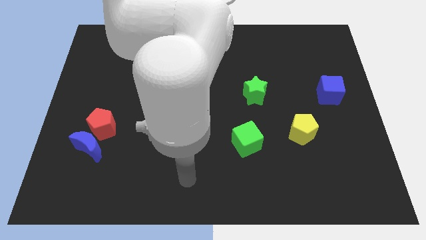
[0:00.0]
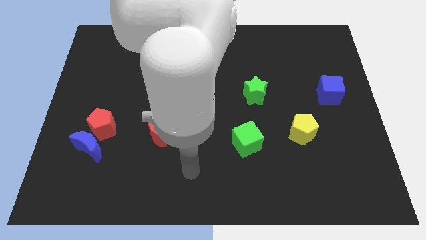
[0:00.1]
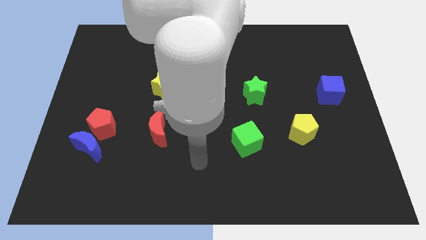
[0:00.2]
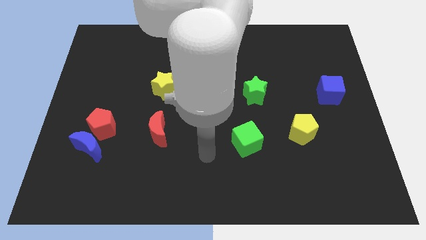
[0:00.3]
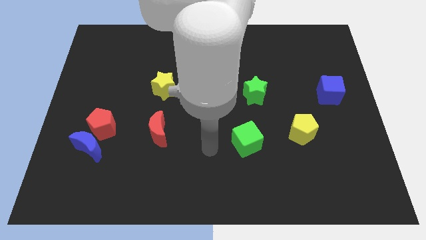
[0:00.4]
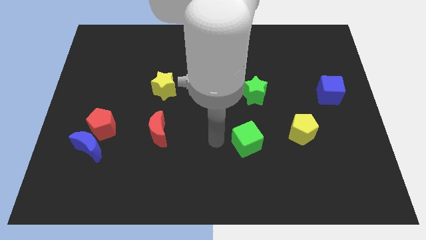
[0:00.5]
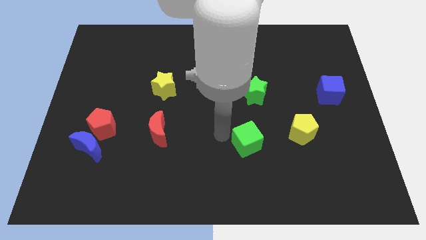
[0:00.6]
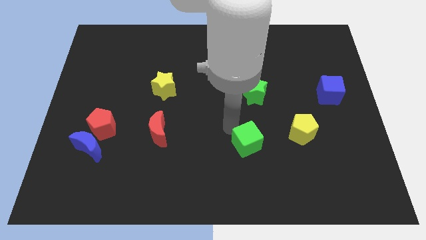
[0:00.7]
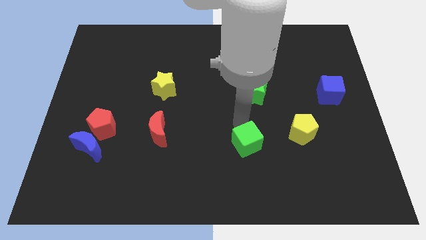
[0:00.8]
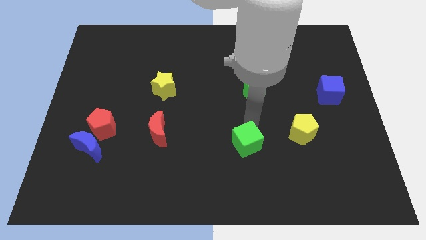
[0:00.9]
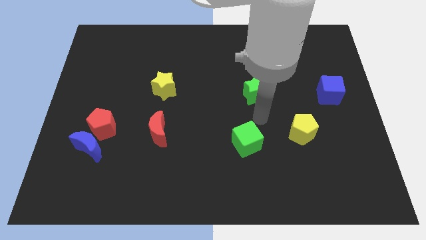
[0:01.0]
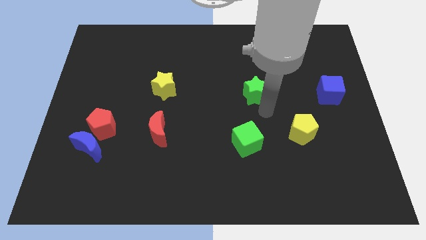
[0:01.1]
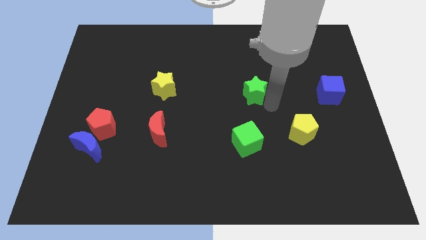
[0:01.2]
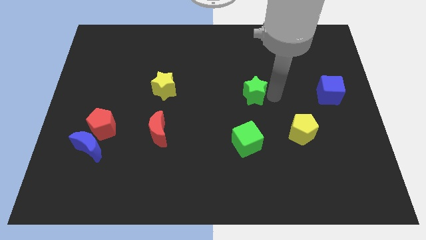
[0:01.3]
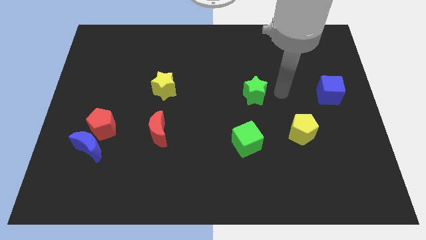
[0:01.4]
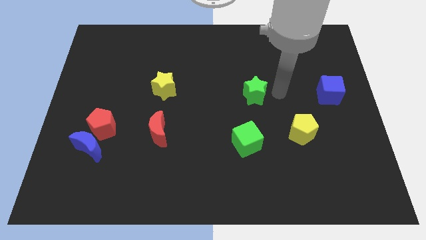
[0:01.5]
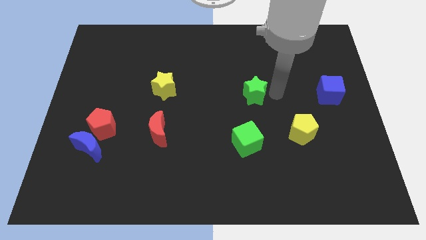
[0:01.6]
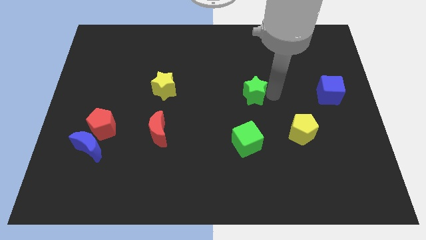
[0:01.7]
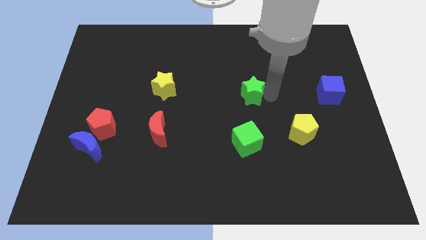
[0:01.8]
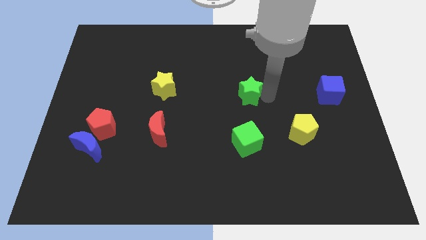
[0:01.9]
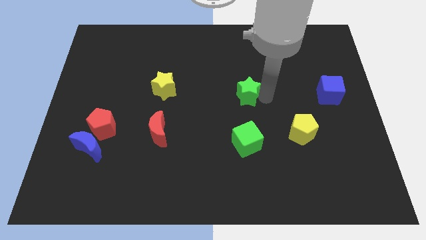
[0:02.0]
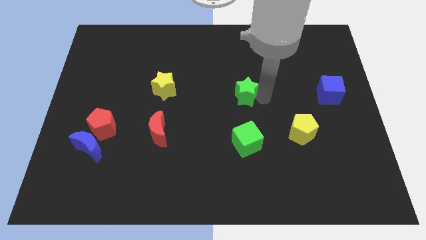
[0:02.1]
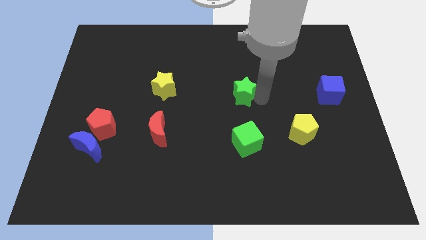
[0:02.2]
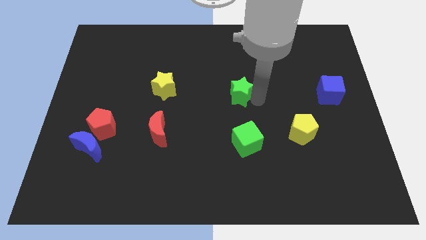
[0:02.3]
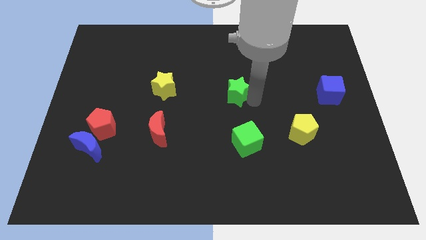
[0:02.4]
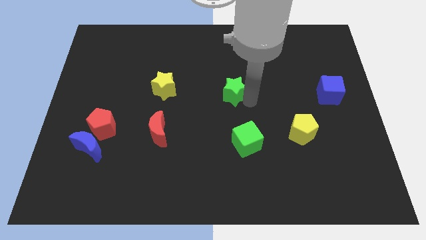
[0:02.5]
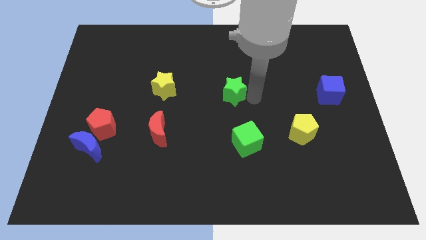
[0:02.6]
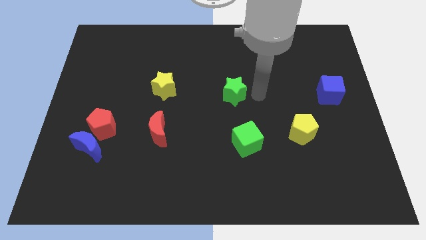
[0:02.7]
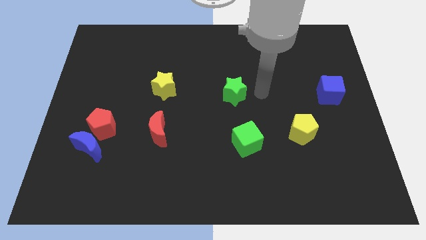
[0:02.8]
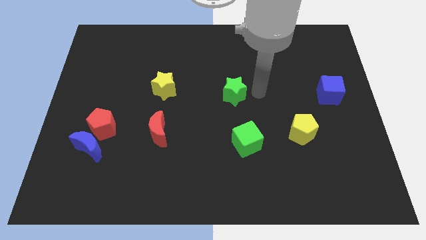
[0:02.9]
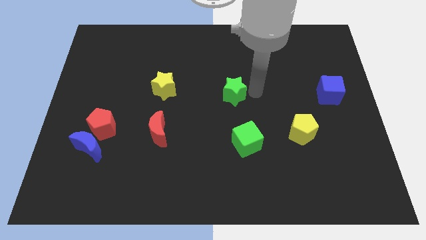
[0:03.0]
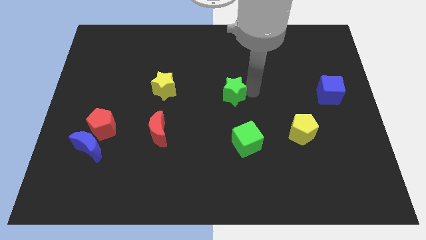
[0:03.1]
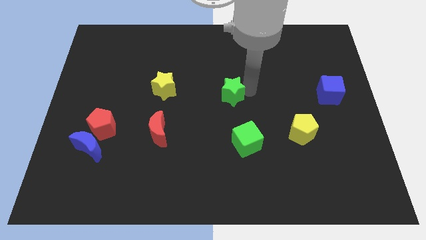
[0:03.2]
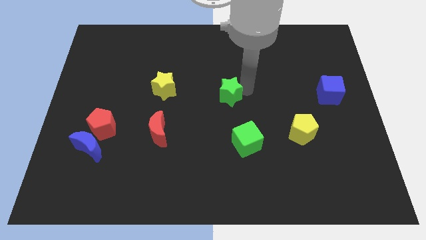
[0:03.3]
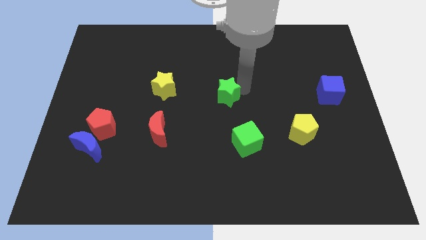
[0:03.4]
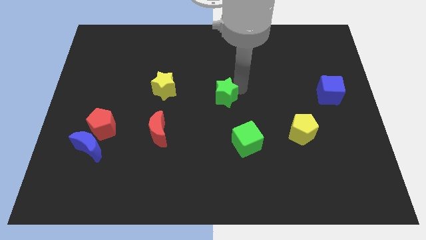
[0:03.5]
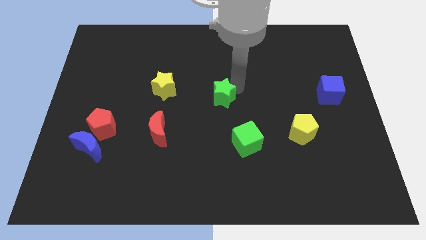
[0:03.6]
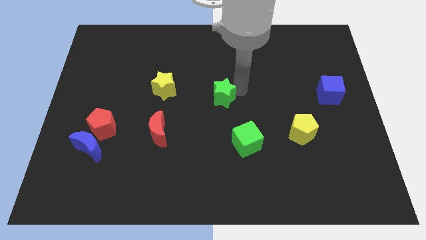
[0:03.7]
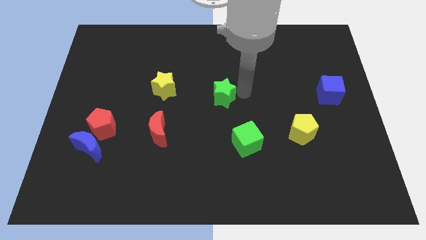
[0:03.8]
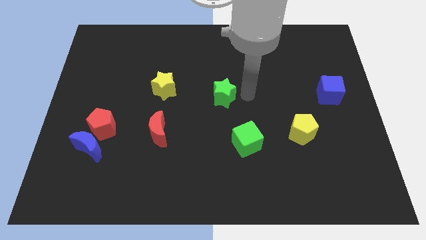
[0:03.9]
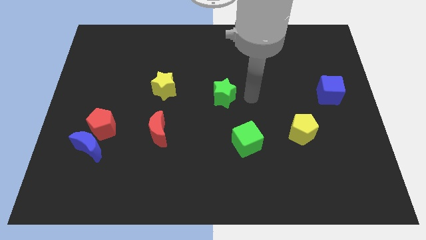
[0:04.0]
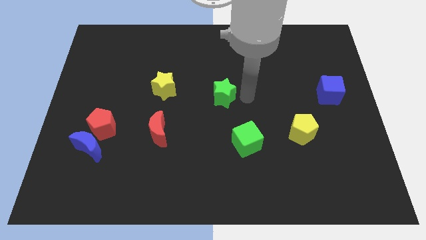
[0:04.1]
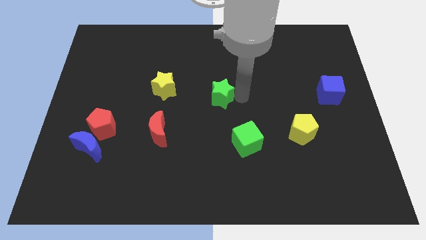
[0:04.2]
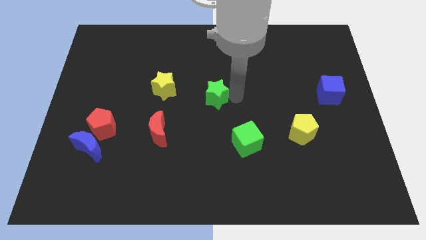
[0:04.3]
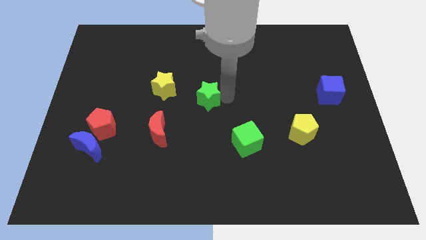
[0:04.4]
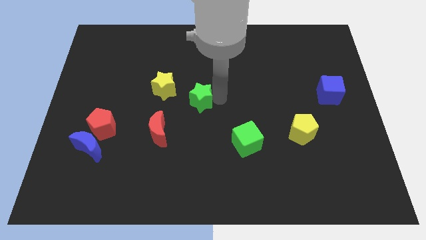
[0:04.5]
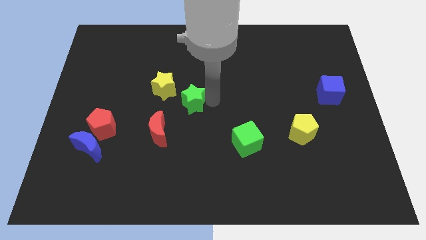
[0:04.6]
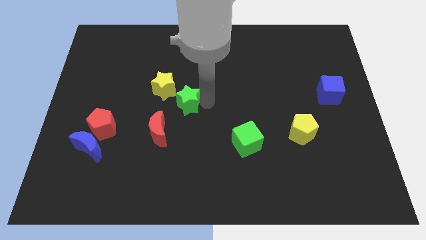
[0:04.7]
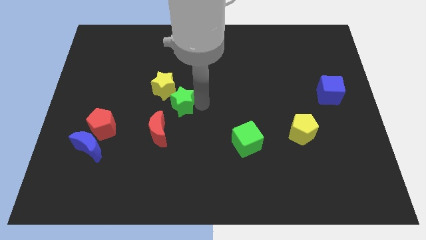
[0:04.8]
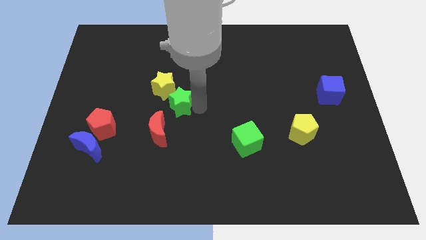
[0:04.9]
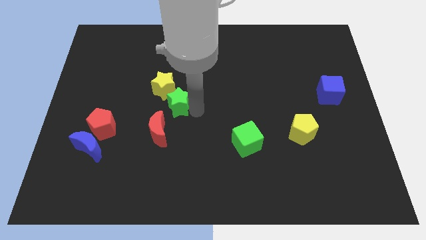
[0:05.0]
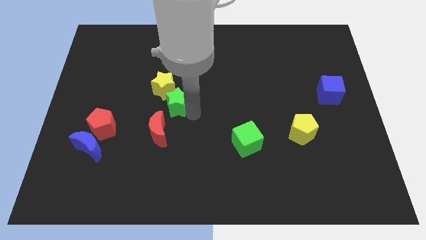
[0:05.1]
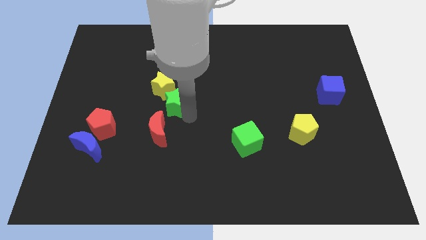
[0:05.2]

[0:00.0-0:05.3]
put the green star next to the yellow star

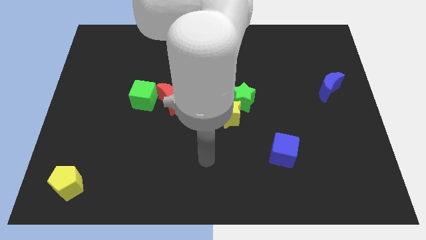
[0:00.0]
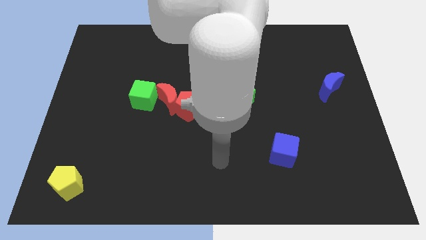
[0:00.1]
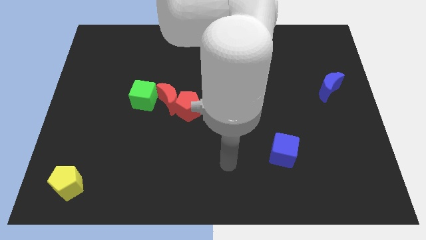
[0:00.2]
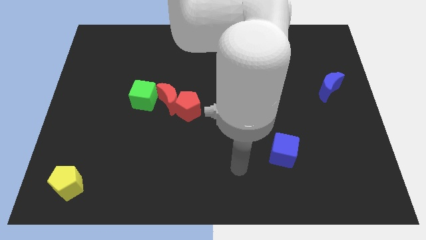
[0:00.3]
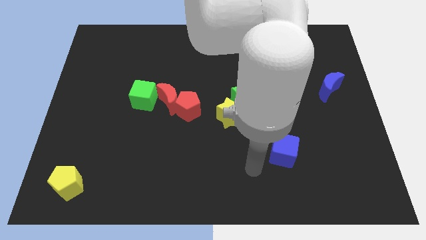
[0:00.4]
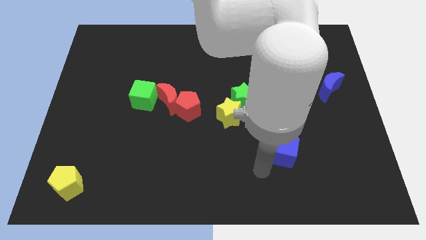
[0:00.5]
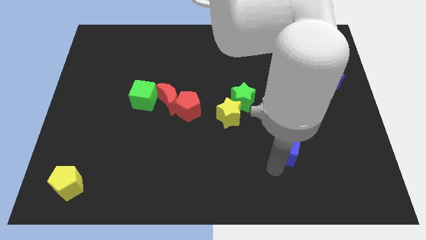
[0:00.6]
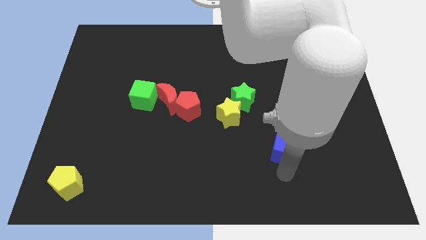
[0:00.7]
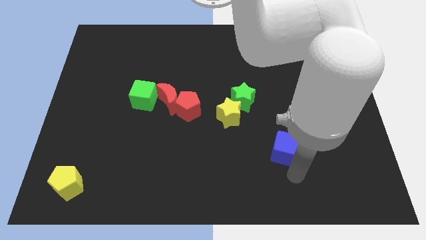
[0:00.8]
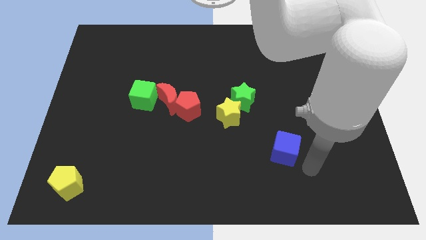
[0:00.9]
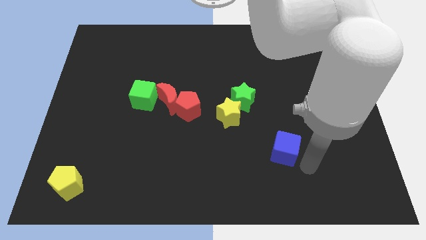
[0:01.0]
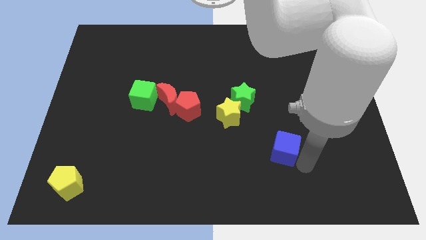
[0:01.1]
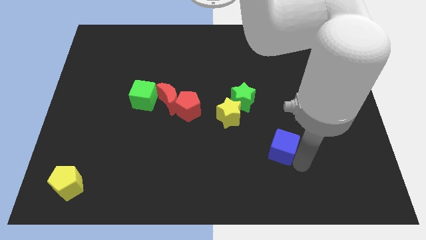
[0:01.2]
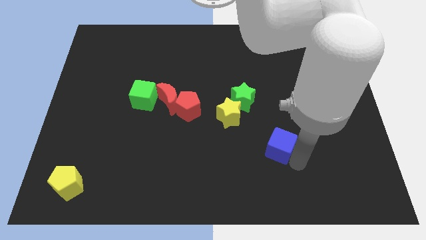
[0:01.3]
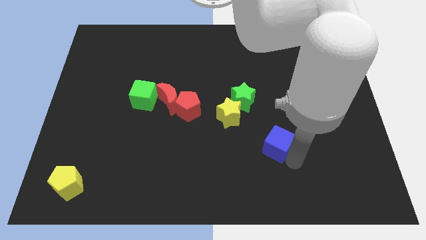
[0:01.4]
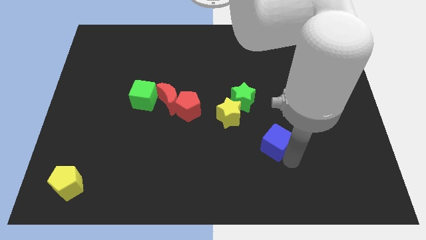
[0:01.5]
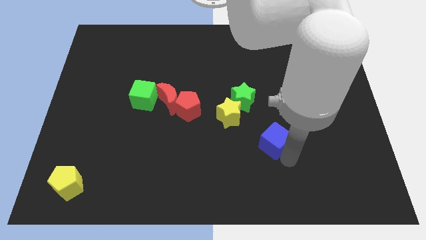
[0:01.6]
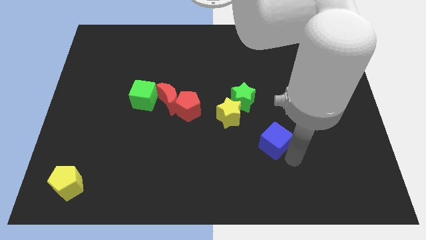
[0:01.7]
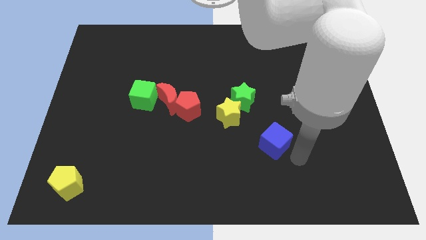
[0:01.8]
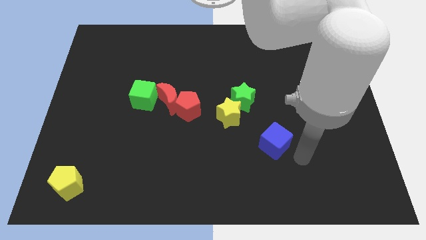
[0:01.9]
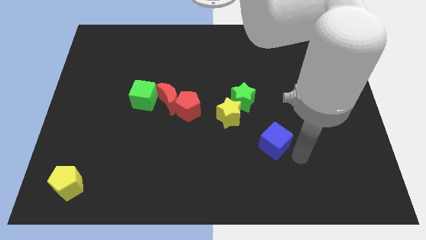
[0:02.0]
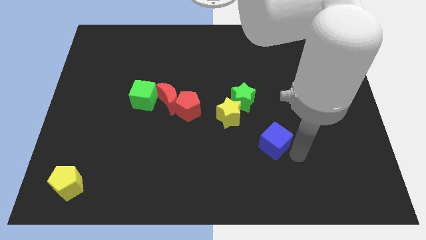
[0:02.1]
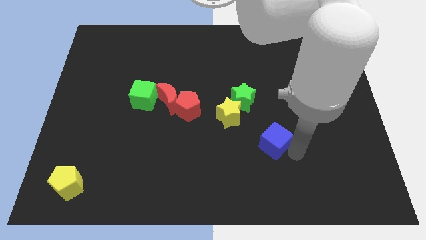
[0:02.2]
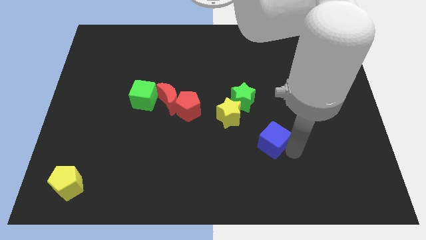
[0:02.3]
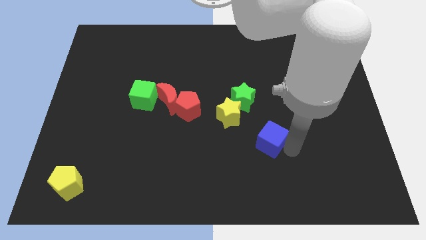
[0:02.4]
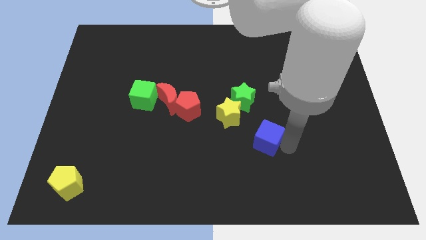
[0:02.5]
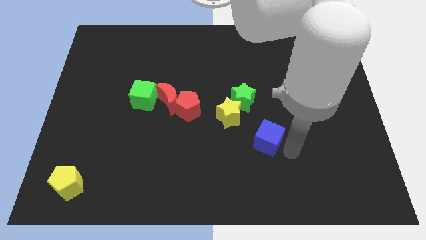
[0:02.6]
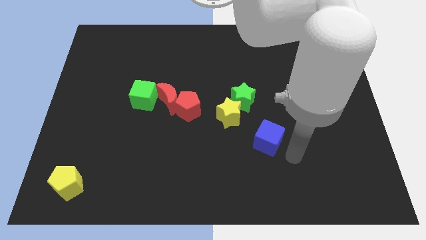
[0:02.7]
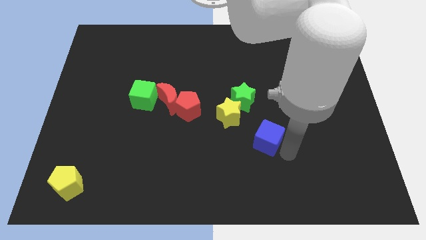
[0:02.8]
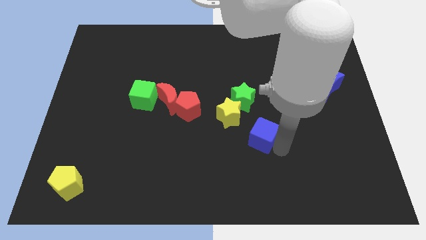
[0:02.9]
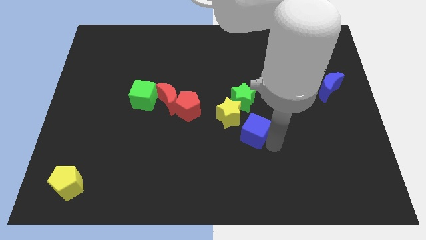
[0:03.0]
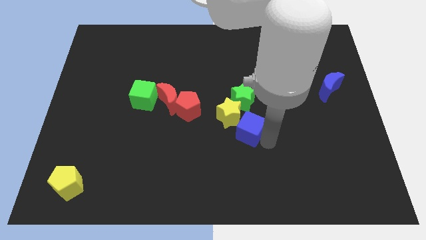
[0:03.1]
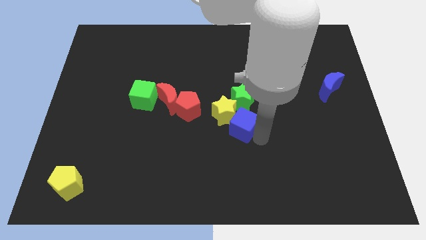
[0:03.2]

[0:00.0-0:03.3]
put the blue cube towards the yellow star
